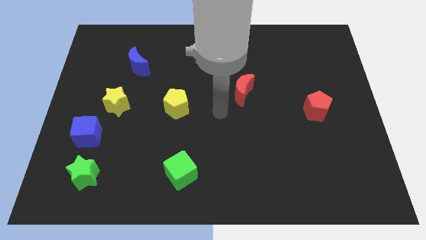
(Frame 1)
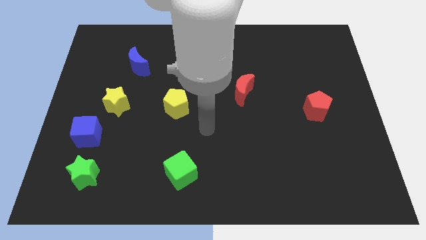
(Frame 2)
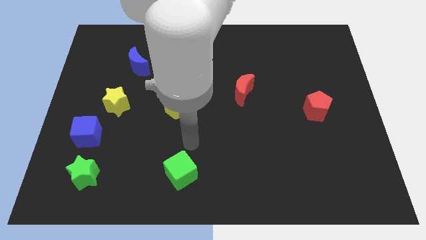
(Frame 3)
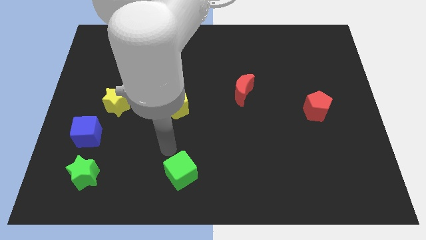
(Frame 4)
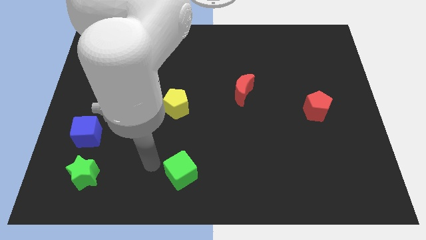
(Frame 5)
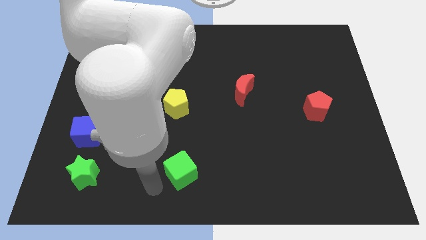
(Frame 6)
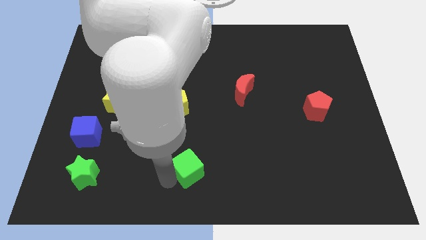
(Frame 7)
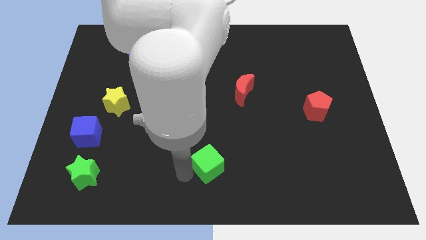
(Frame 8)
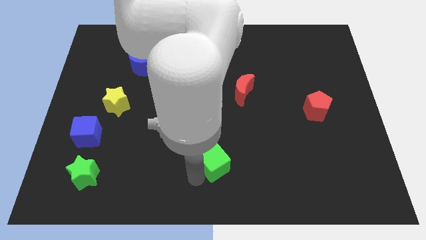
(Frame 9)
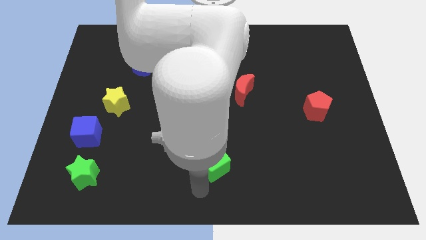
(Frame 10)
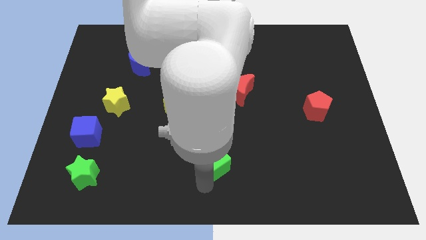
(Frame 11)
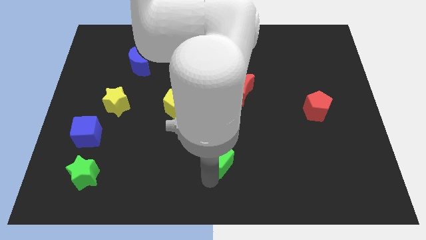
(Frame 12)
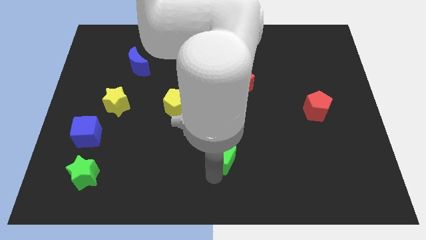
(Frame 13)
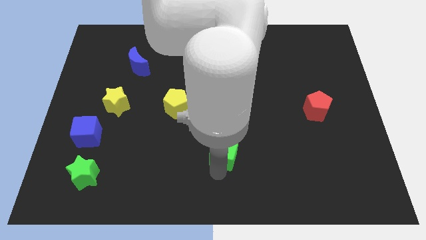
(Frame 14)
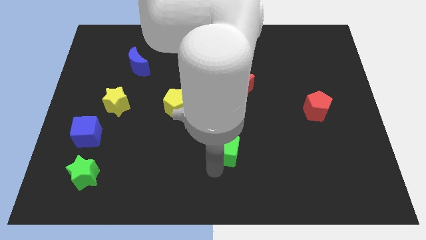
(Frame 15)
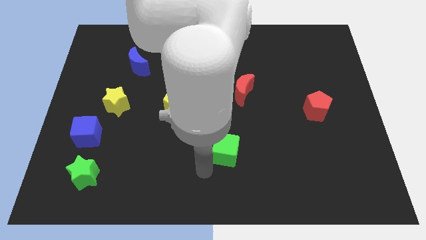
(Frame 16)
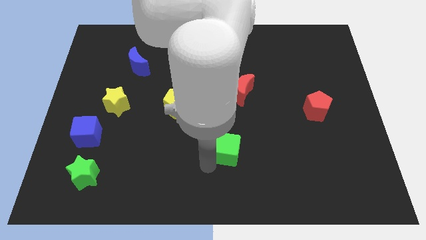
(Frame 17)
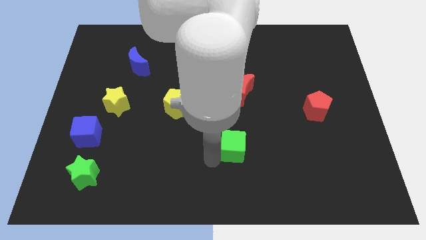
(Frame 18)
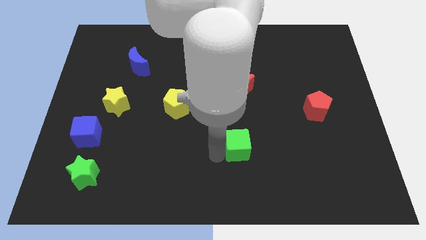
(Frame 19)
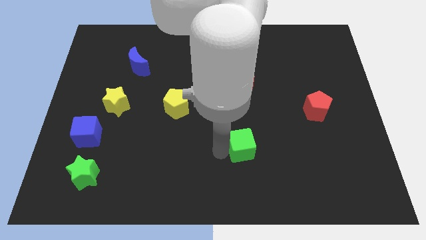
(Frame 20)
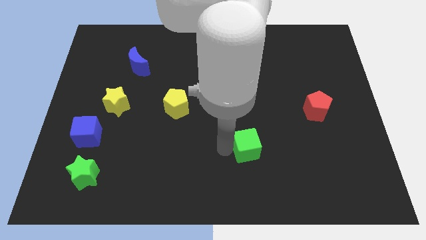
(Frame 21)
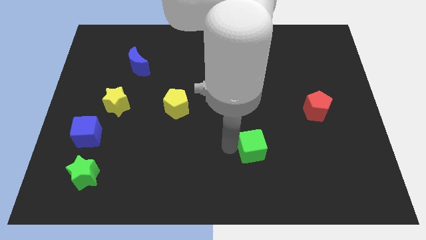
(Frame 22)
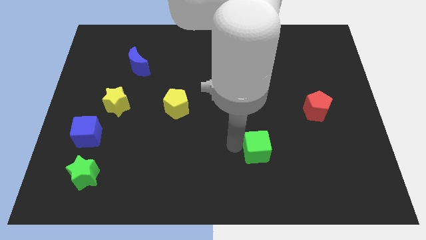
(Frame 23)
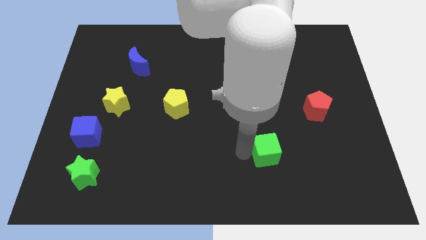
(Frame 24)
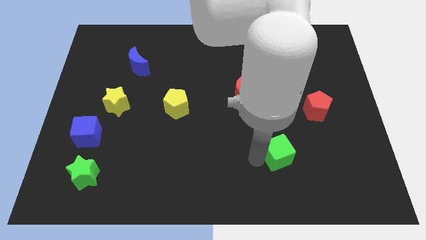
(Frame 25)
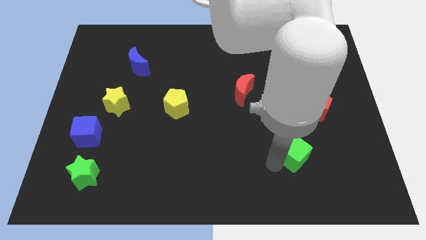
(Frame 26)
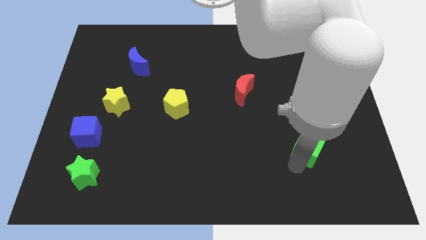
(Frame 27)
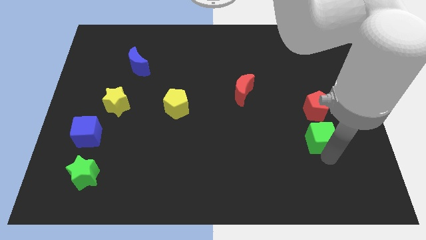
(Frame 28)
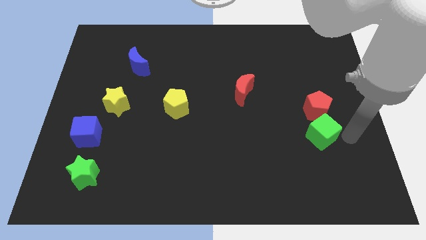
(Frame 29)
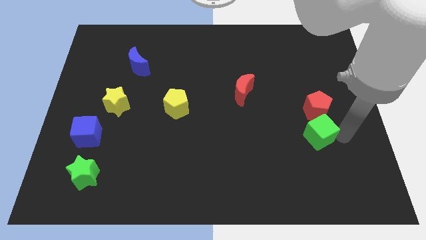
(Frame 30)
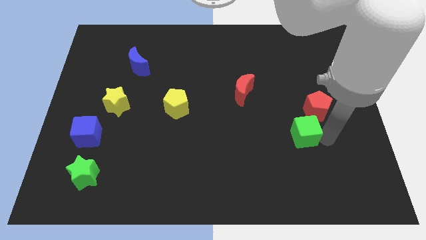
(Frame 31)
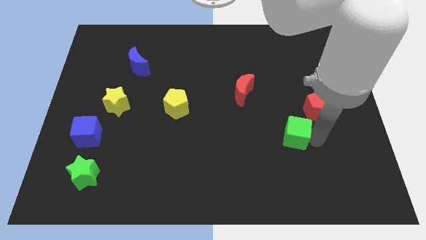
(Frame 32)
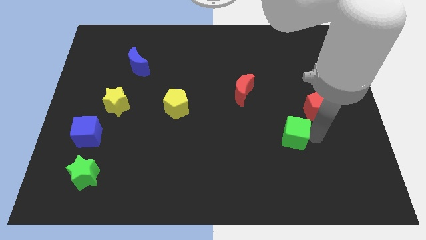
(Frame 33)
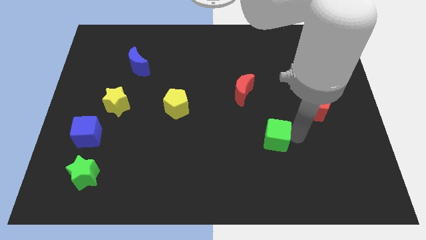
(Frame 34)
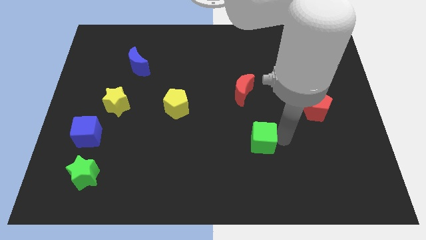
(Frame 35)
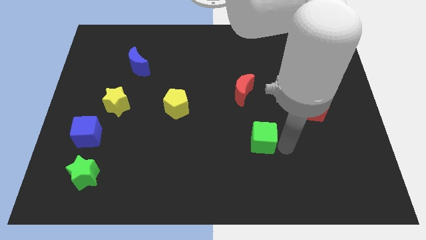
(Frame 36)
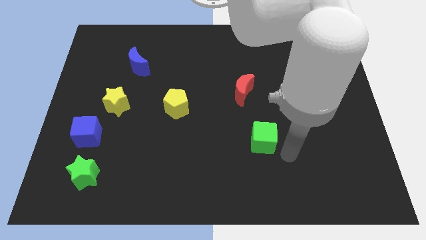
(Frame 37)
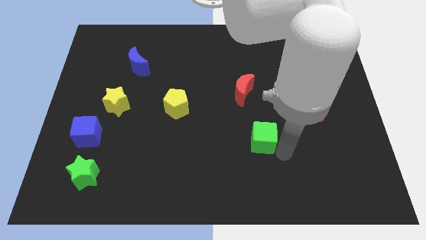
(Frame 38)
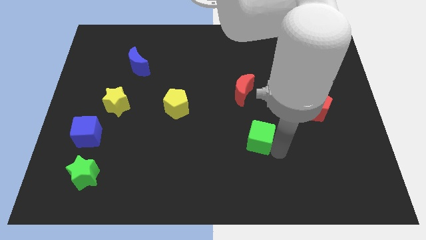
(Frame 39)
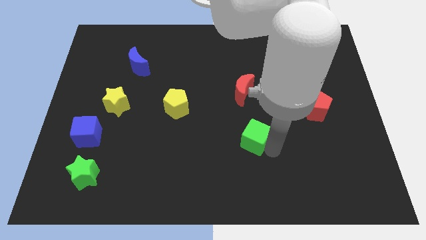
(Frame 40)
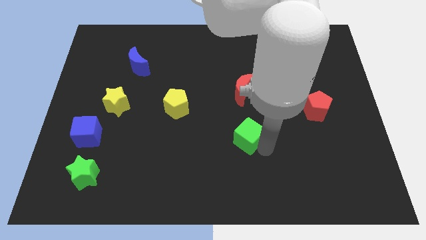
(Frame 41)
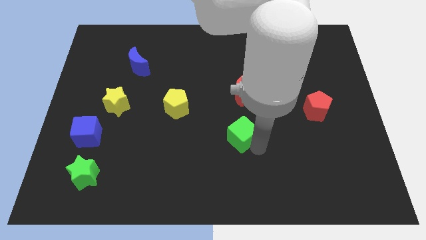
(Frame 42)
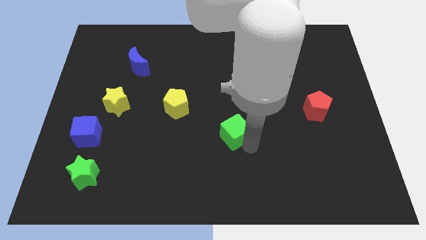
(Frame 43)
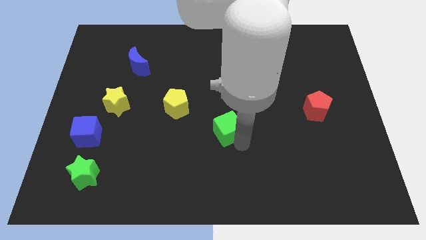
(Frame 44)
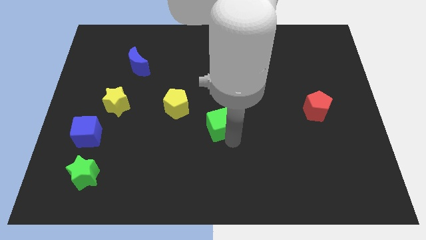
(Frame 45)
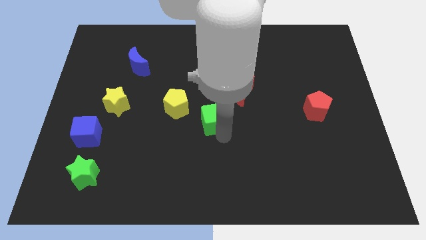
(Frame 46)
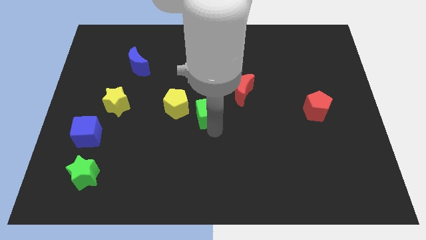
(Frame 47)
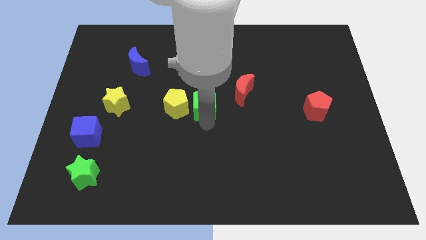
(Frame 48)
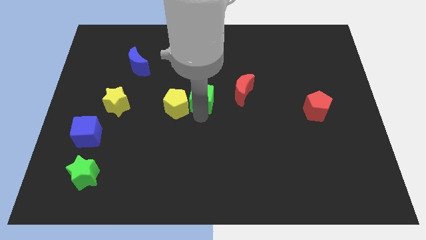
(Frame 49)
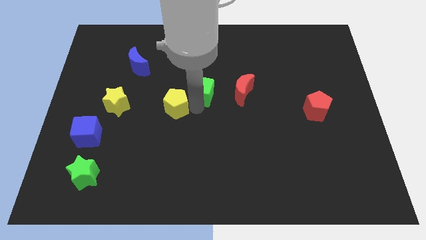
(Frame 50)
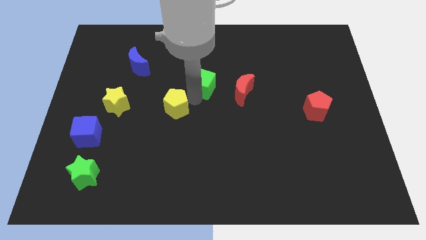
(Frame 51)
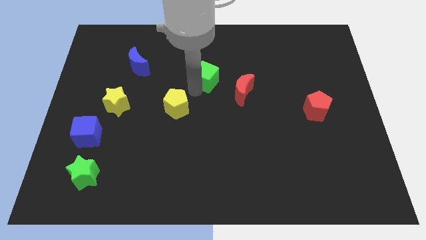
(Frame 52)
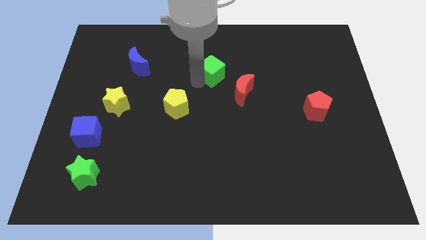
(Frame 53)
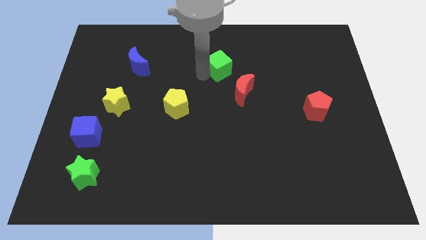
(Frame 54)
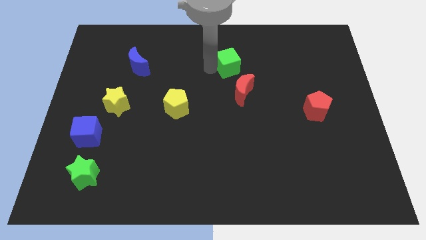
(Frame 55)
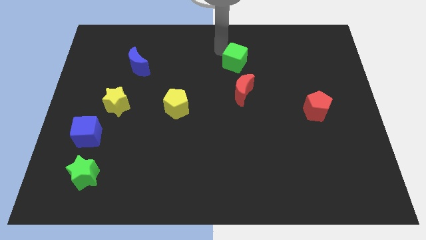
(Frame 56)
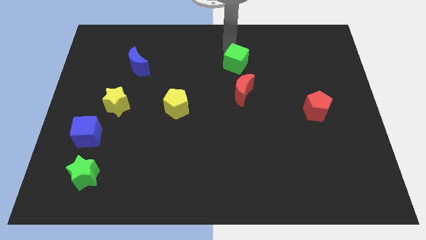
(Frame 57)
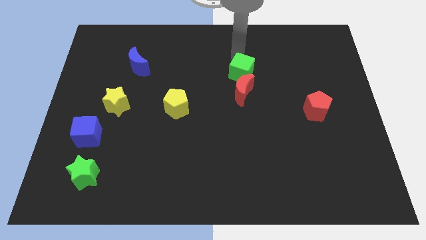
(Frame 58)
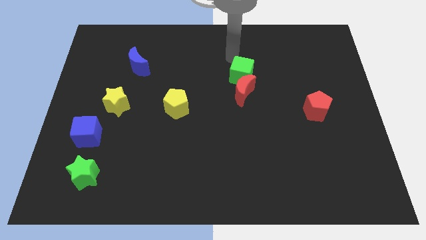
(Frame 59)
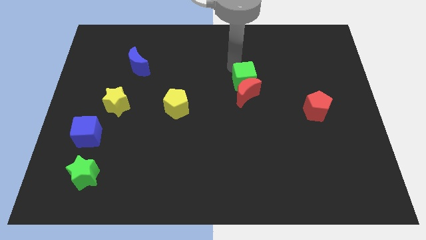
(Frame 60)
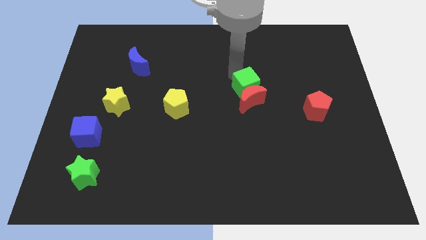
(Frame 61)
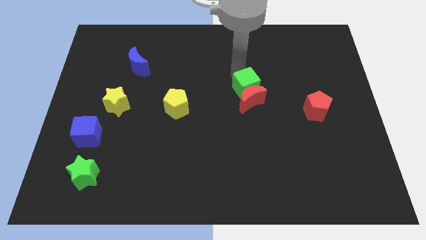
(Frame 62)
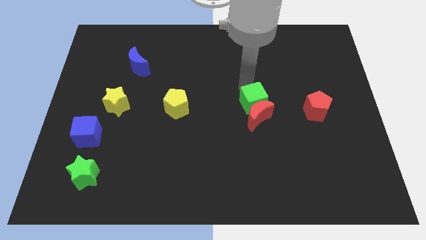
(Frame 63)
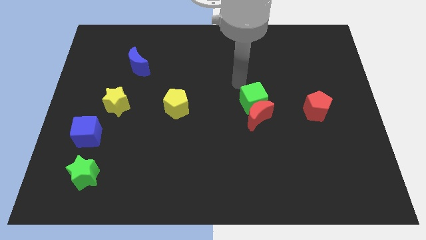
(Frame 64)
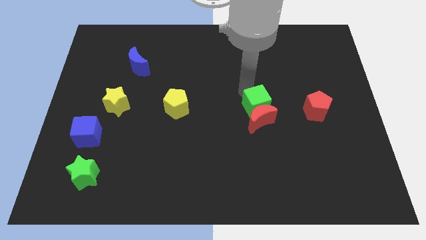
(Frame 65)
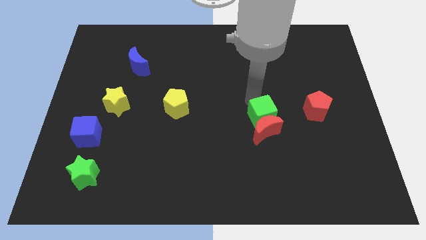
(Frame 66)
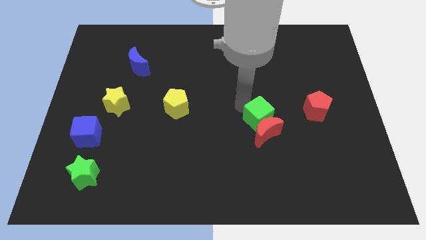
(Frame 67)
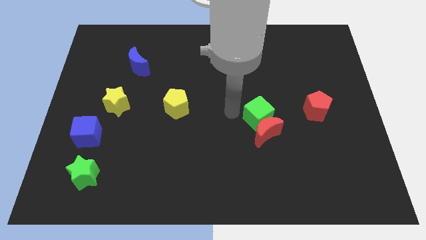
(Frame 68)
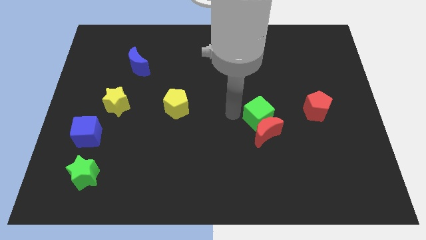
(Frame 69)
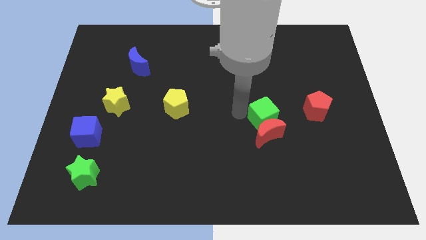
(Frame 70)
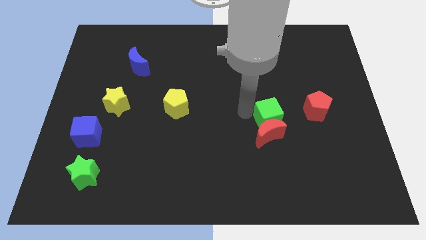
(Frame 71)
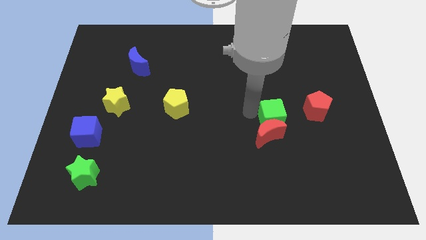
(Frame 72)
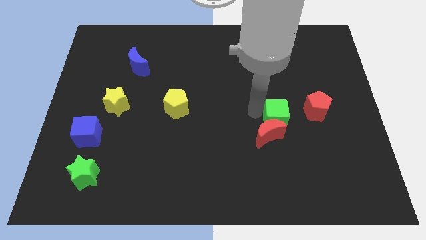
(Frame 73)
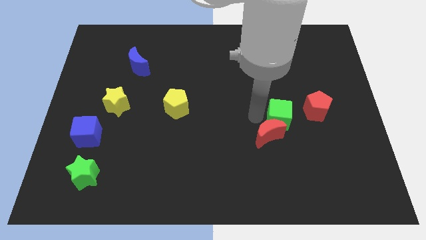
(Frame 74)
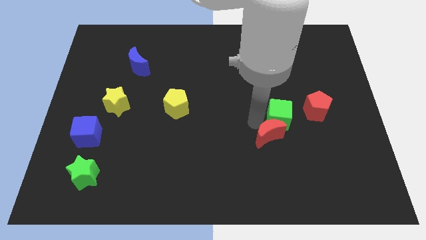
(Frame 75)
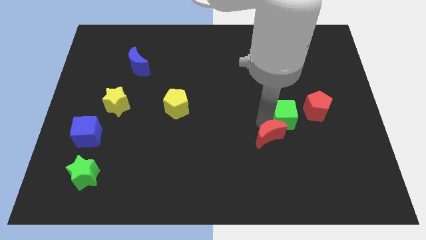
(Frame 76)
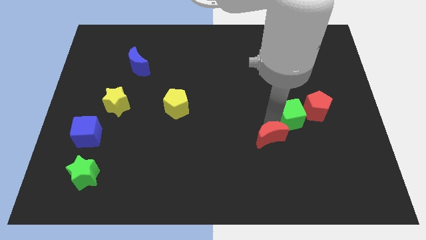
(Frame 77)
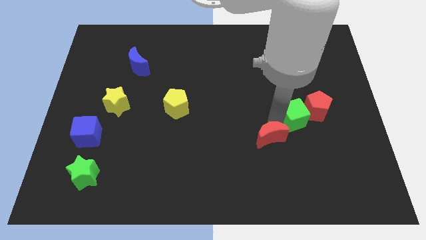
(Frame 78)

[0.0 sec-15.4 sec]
push the green cube to the red pentagon
